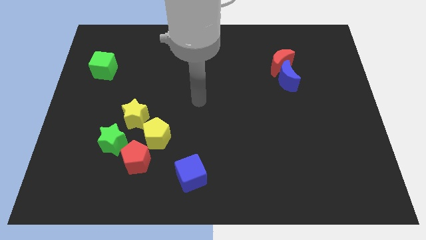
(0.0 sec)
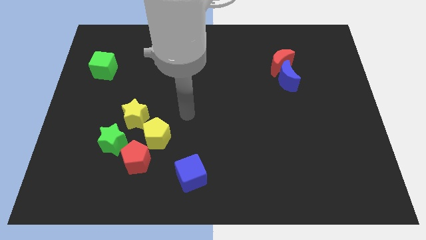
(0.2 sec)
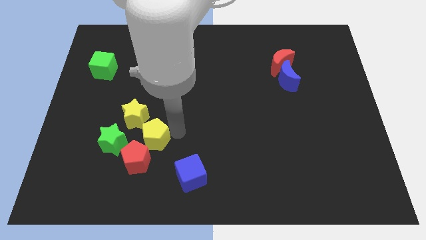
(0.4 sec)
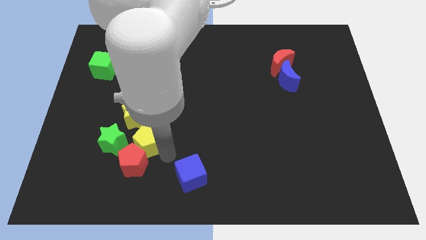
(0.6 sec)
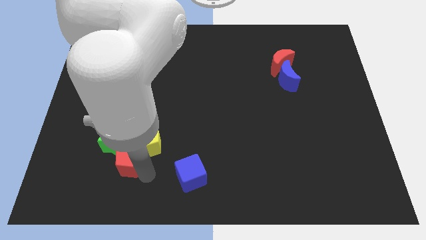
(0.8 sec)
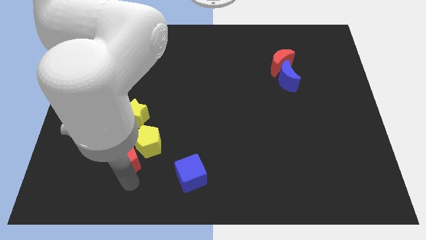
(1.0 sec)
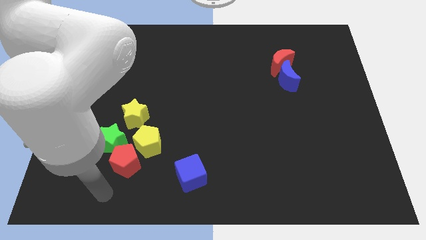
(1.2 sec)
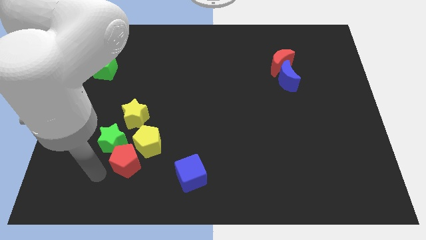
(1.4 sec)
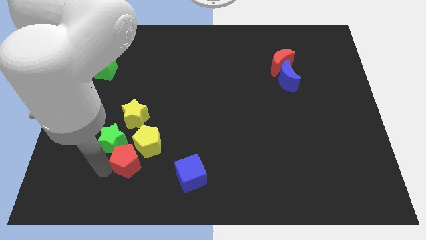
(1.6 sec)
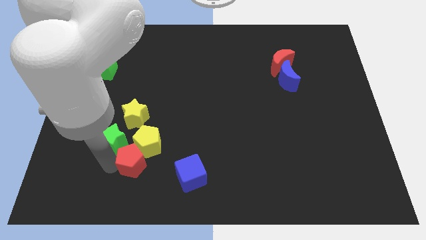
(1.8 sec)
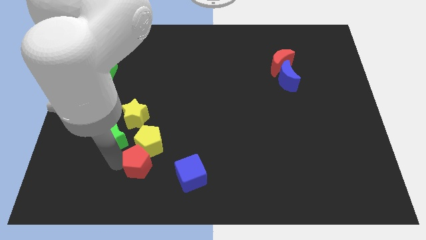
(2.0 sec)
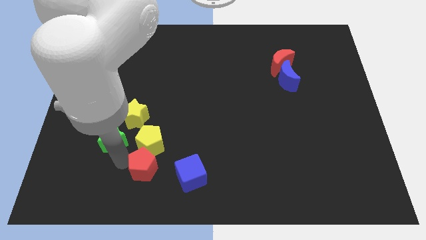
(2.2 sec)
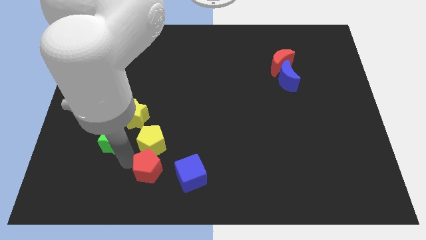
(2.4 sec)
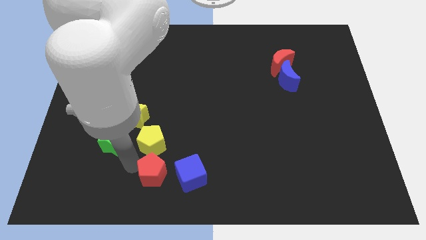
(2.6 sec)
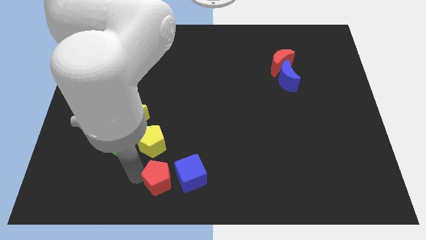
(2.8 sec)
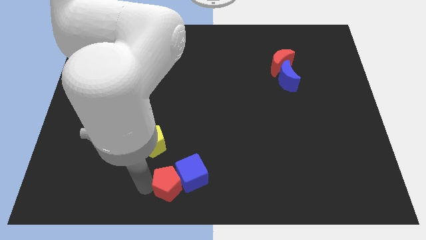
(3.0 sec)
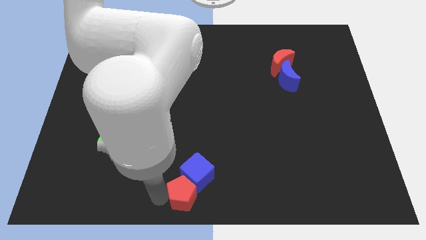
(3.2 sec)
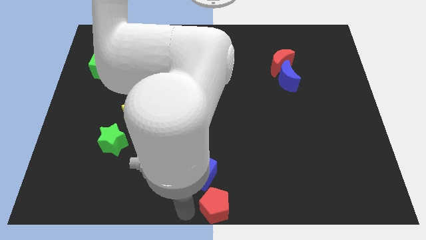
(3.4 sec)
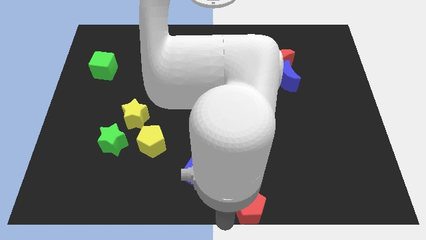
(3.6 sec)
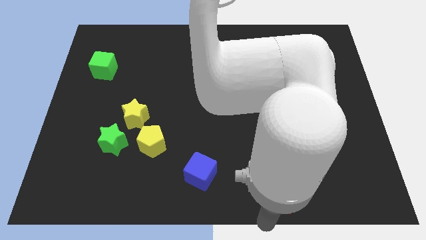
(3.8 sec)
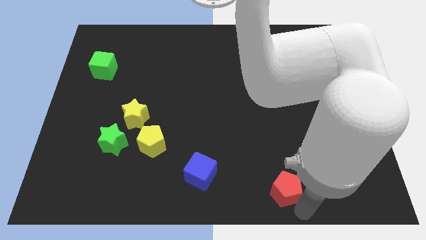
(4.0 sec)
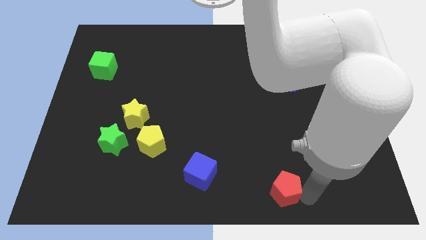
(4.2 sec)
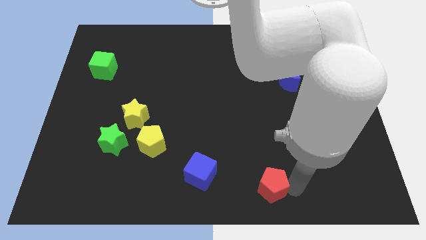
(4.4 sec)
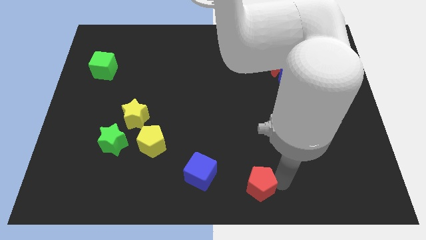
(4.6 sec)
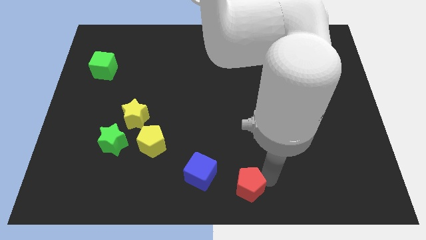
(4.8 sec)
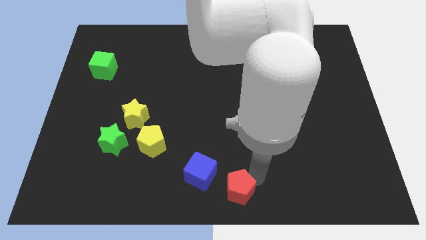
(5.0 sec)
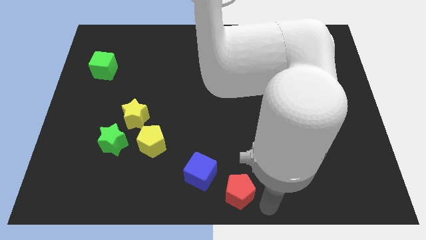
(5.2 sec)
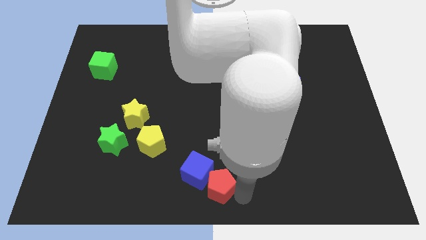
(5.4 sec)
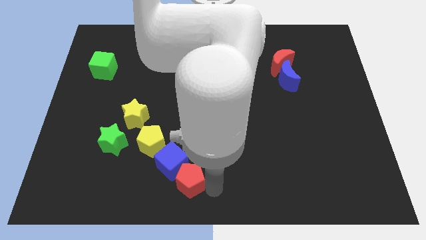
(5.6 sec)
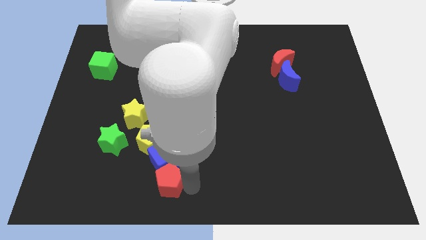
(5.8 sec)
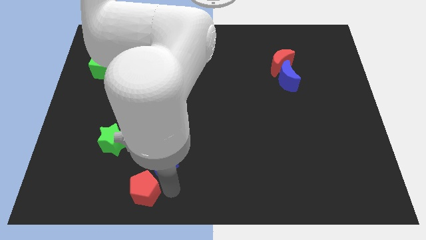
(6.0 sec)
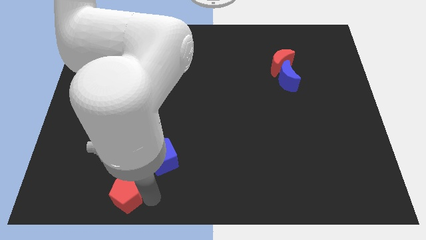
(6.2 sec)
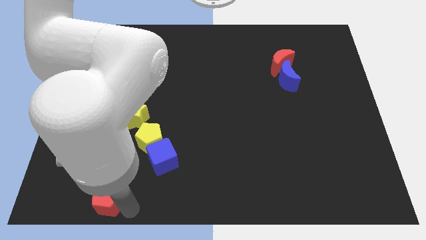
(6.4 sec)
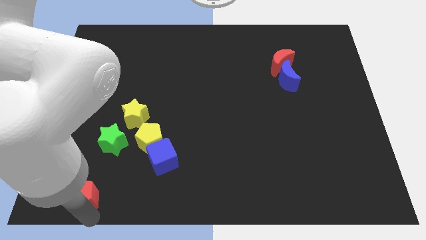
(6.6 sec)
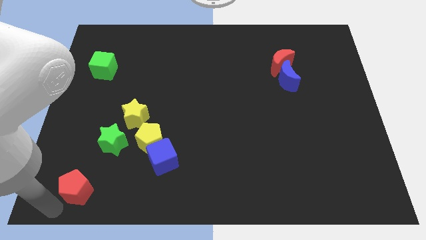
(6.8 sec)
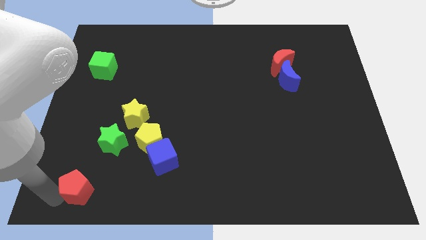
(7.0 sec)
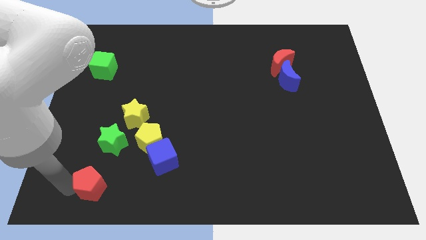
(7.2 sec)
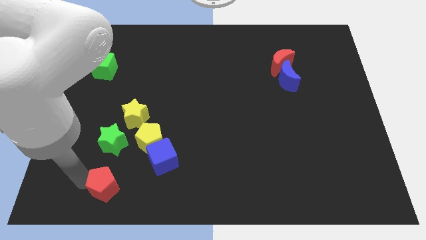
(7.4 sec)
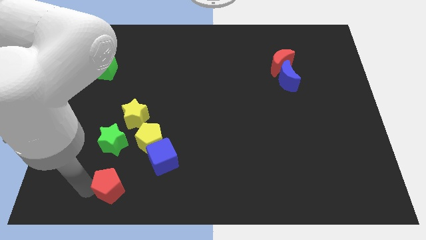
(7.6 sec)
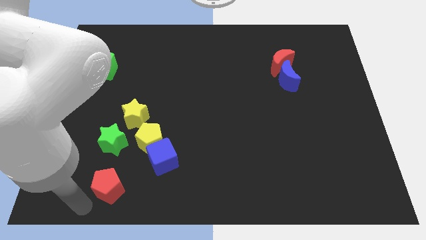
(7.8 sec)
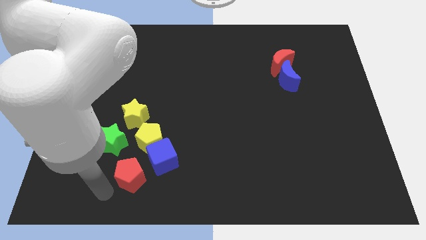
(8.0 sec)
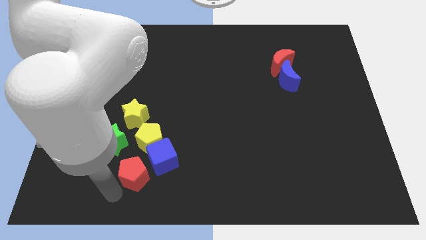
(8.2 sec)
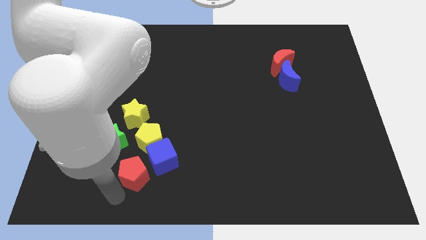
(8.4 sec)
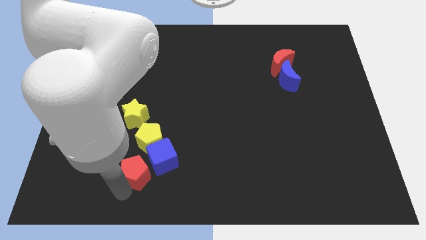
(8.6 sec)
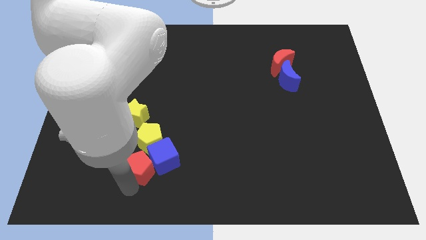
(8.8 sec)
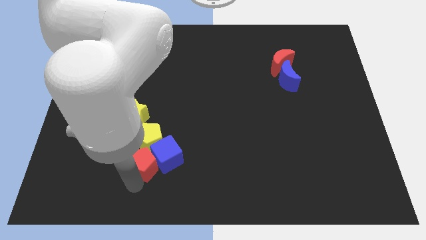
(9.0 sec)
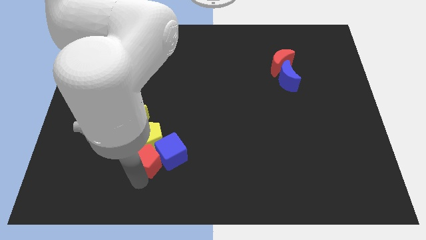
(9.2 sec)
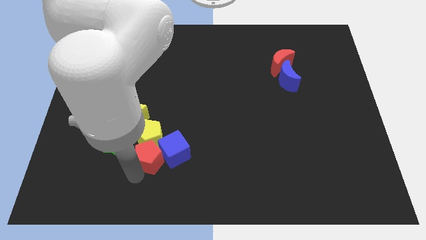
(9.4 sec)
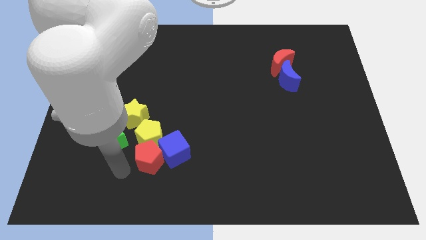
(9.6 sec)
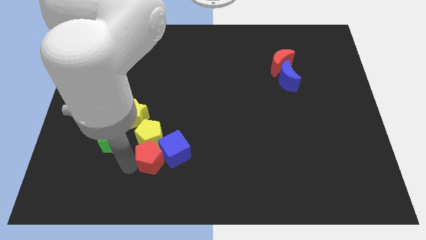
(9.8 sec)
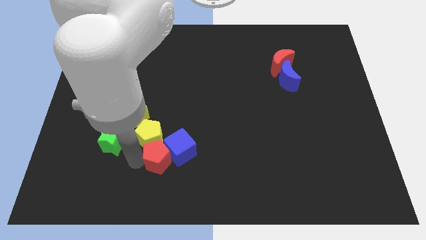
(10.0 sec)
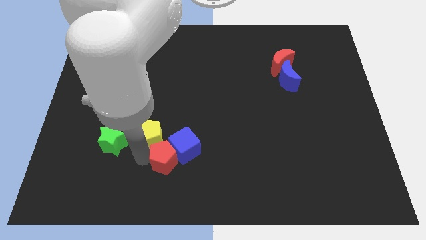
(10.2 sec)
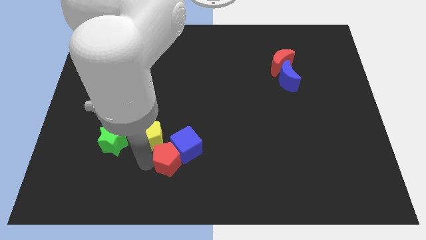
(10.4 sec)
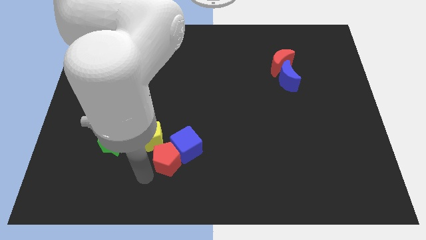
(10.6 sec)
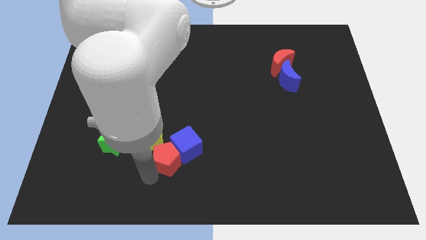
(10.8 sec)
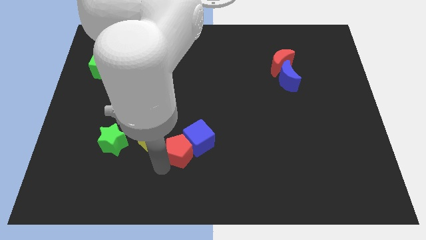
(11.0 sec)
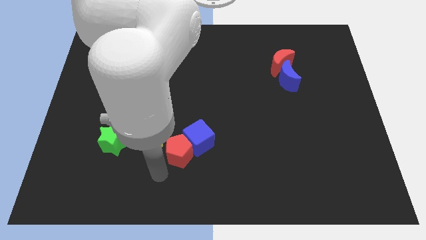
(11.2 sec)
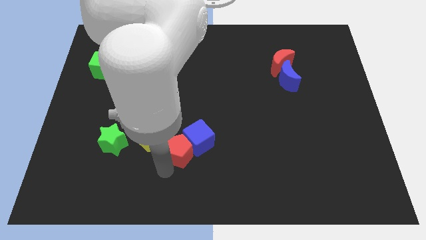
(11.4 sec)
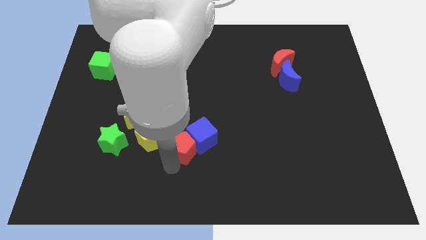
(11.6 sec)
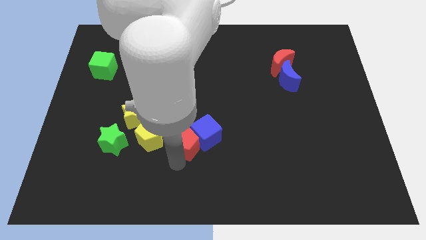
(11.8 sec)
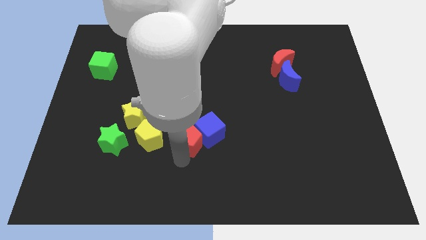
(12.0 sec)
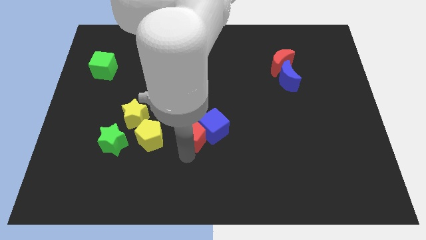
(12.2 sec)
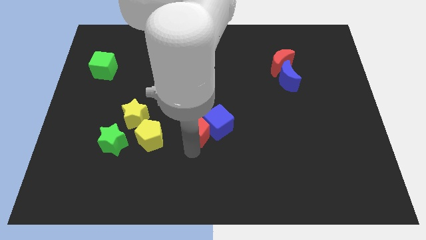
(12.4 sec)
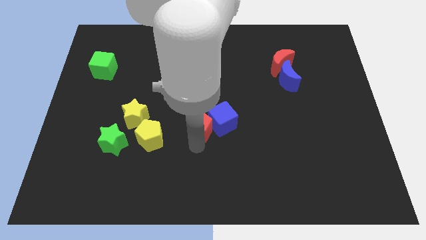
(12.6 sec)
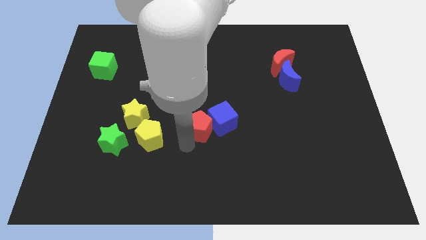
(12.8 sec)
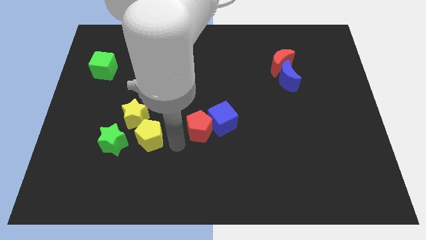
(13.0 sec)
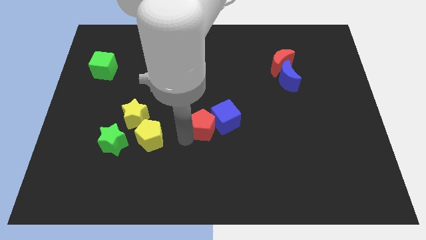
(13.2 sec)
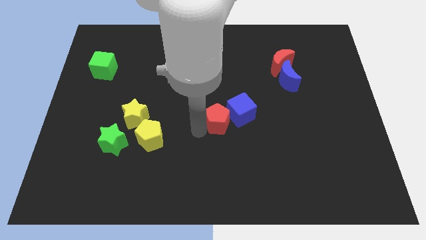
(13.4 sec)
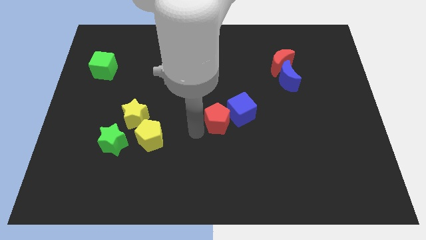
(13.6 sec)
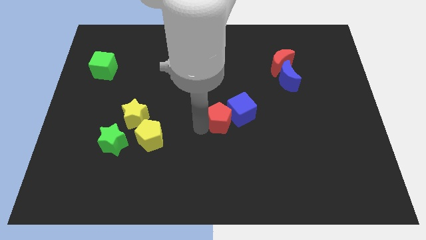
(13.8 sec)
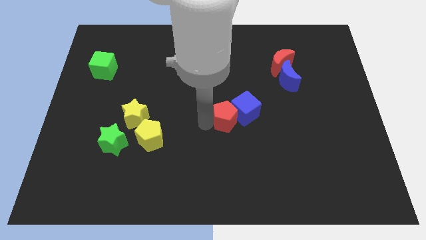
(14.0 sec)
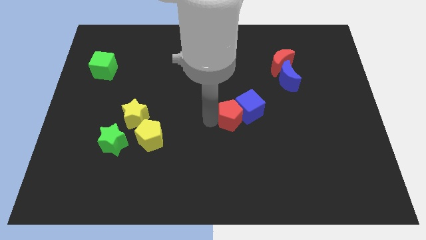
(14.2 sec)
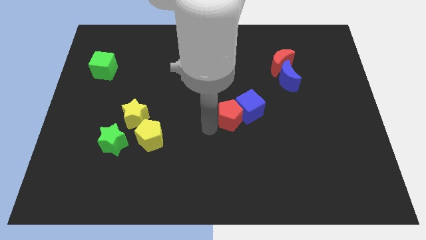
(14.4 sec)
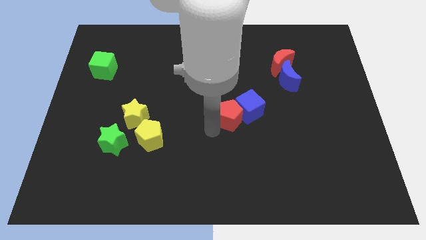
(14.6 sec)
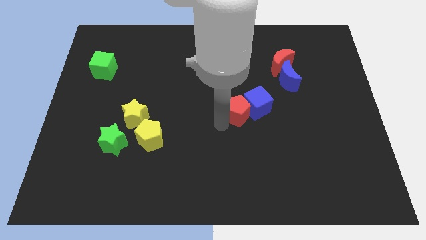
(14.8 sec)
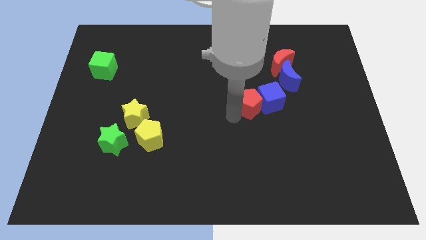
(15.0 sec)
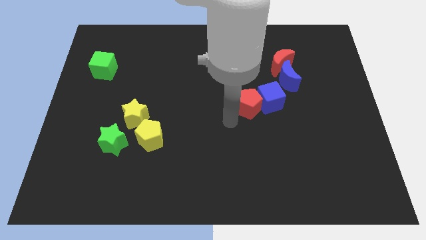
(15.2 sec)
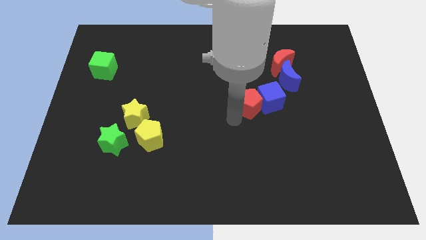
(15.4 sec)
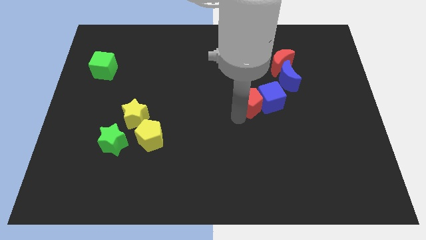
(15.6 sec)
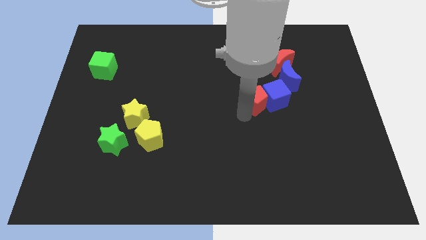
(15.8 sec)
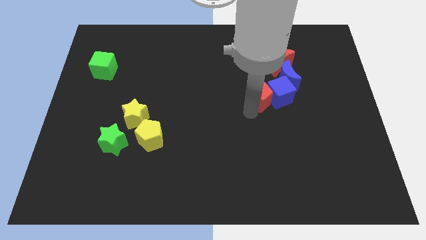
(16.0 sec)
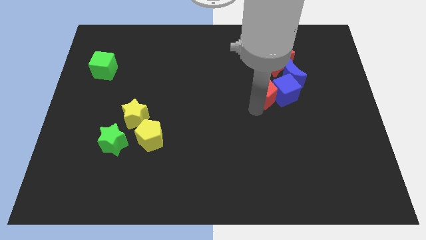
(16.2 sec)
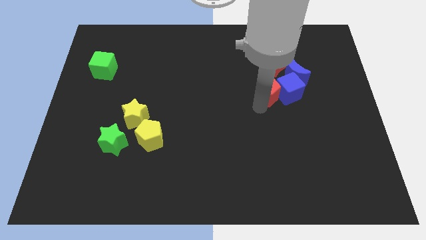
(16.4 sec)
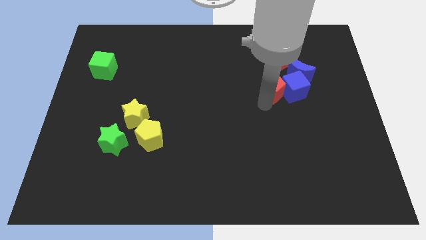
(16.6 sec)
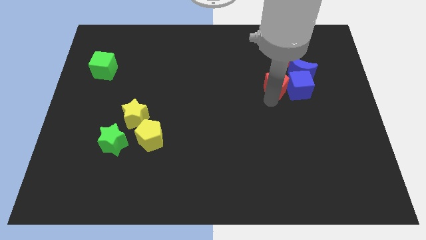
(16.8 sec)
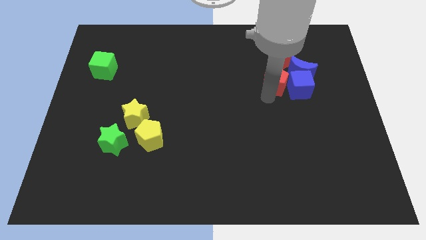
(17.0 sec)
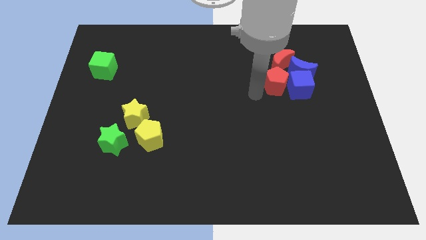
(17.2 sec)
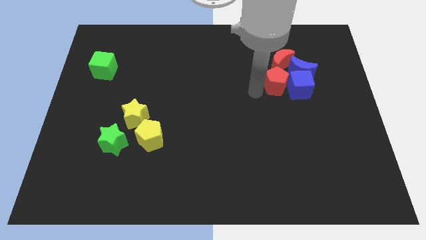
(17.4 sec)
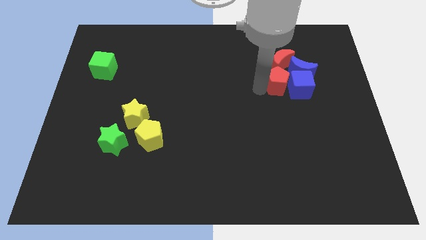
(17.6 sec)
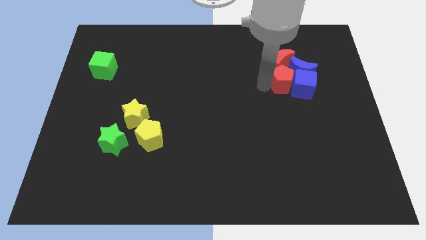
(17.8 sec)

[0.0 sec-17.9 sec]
slide the red pentagon to the blue moon
